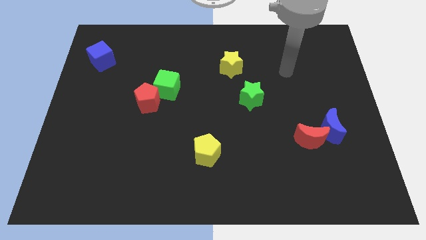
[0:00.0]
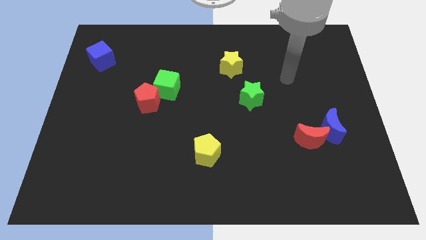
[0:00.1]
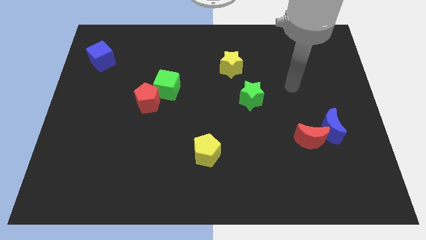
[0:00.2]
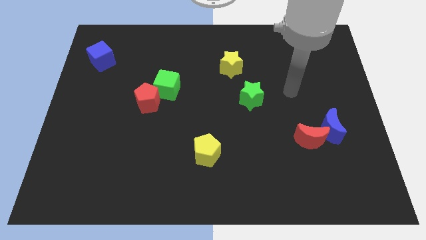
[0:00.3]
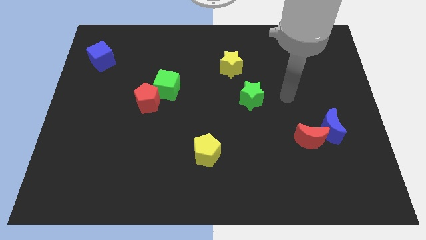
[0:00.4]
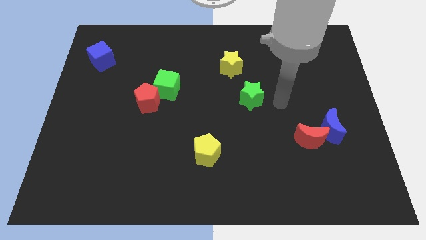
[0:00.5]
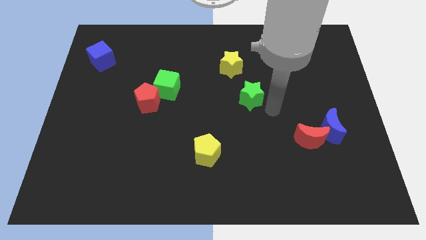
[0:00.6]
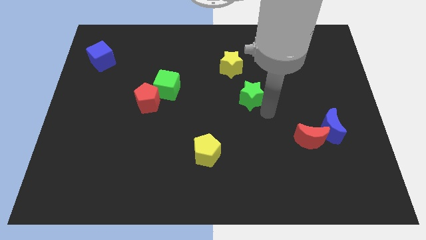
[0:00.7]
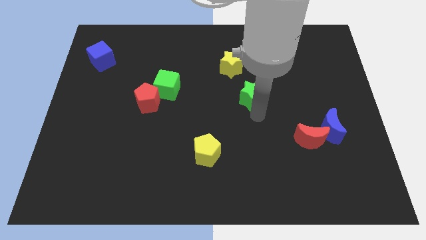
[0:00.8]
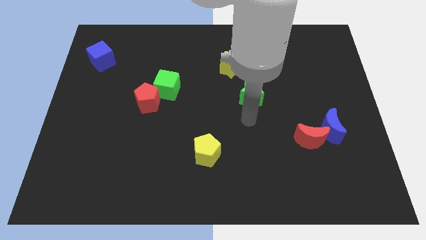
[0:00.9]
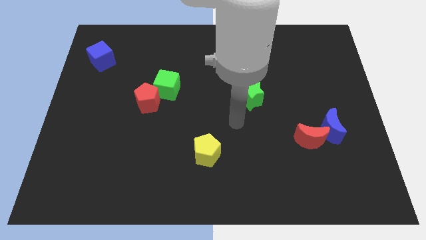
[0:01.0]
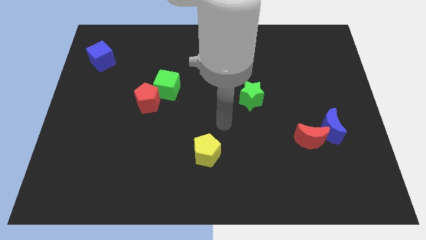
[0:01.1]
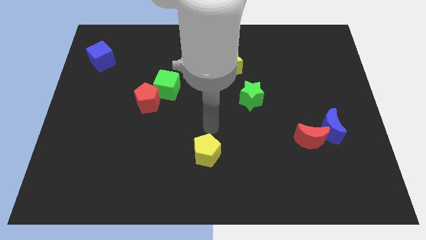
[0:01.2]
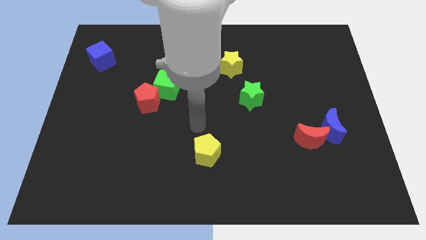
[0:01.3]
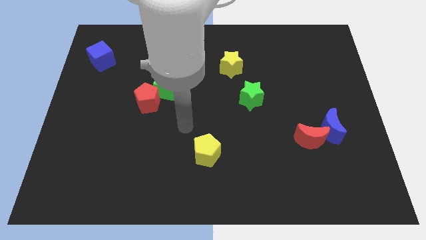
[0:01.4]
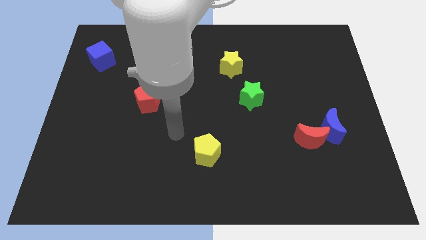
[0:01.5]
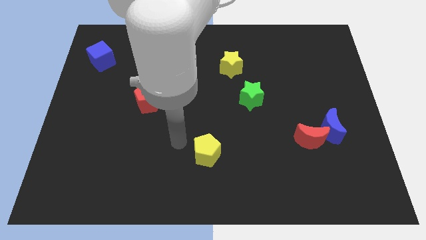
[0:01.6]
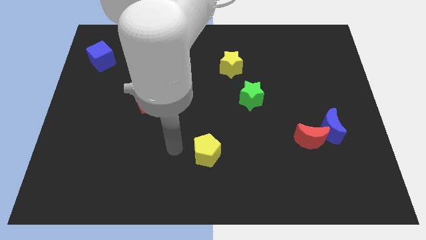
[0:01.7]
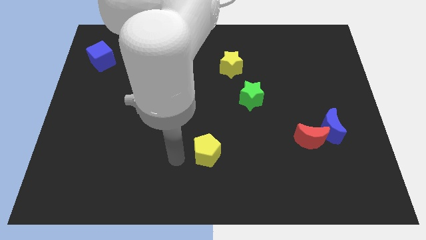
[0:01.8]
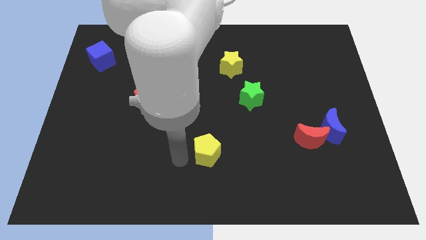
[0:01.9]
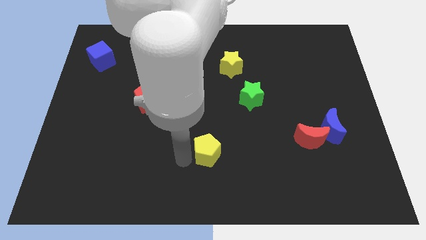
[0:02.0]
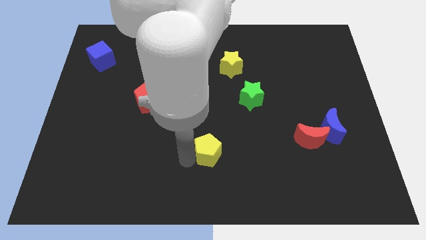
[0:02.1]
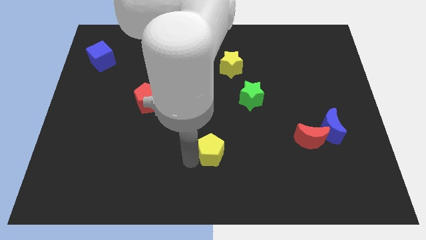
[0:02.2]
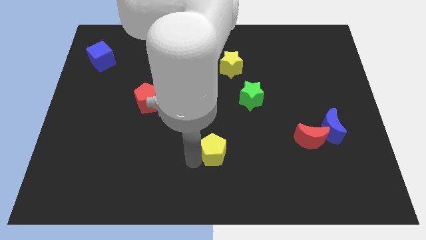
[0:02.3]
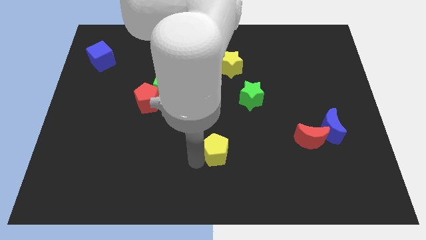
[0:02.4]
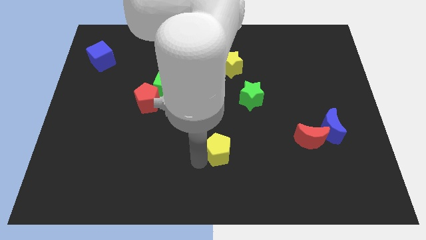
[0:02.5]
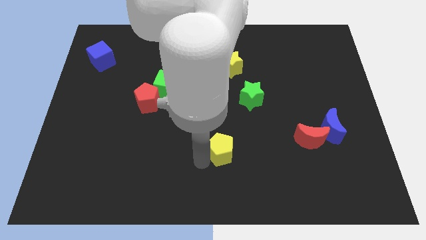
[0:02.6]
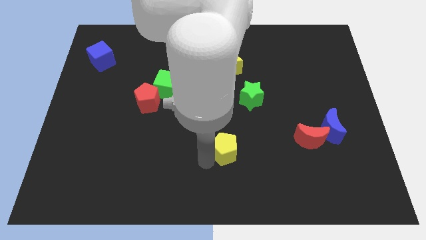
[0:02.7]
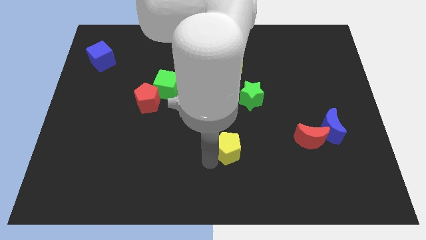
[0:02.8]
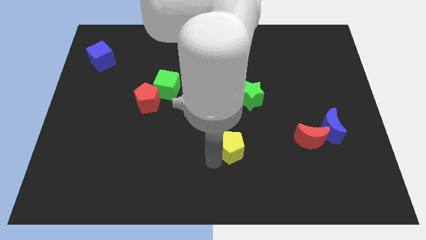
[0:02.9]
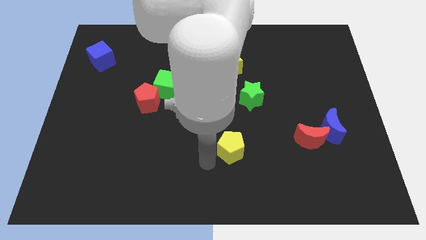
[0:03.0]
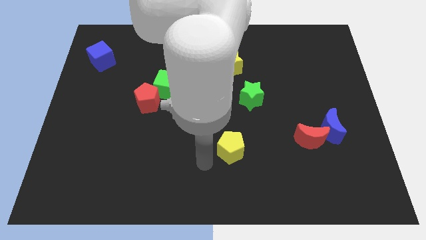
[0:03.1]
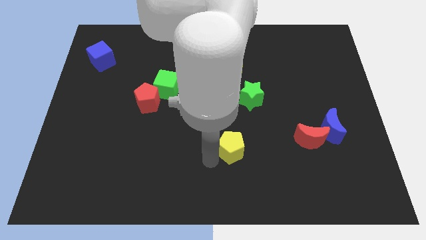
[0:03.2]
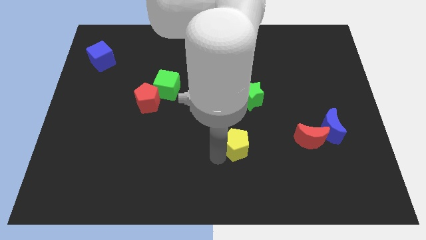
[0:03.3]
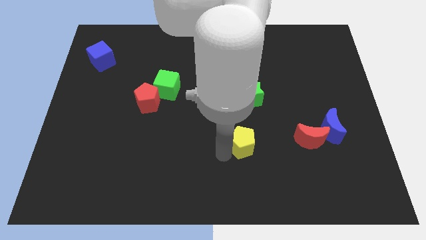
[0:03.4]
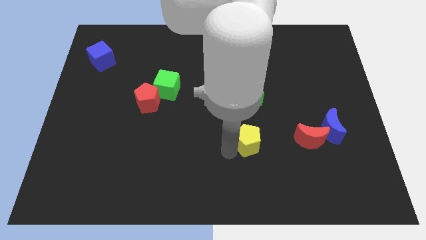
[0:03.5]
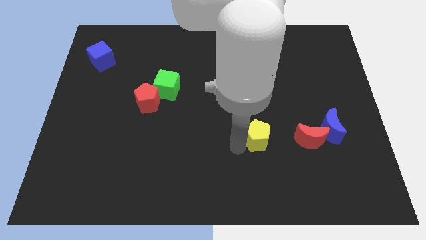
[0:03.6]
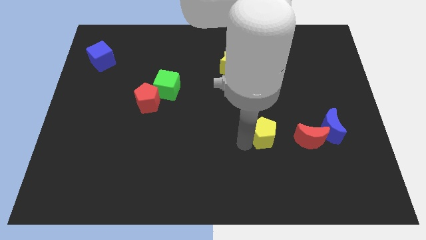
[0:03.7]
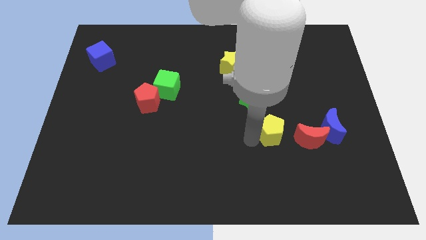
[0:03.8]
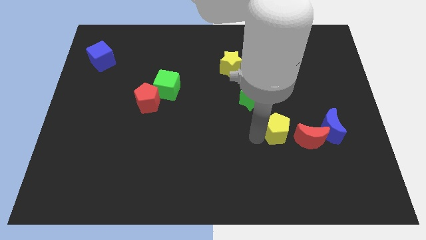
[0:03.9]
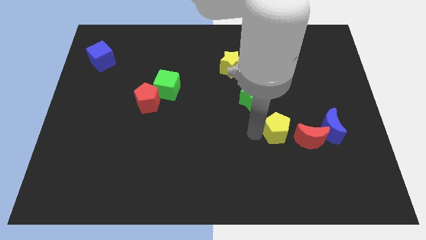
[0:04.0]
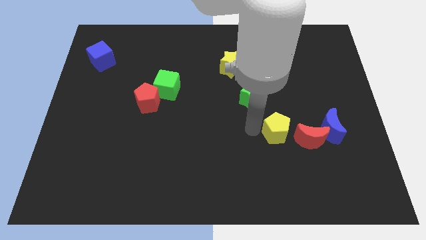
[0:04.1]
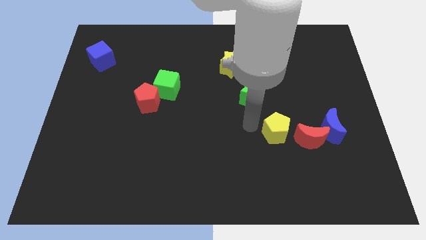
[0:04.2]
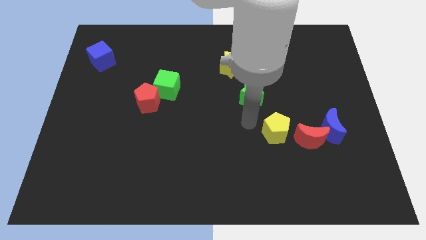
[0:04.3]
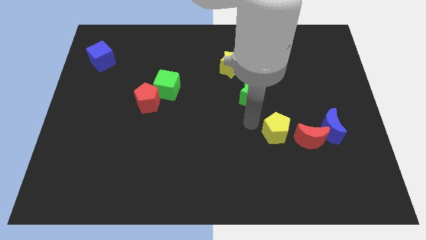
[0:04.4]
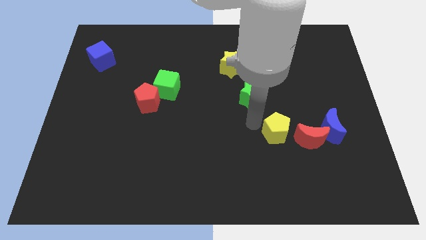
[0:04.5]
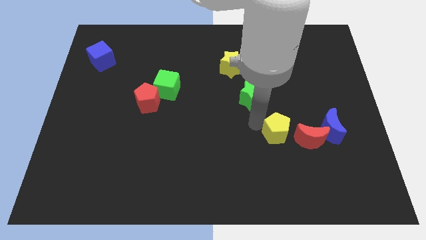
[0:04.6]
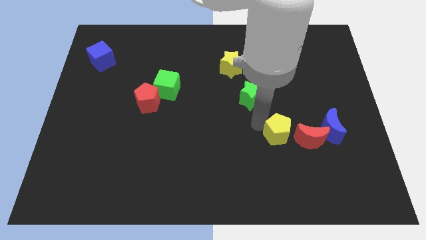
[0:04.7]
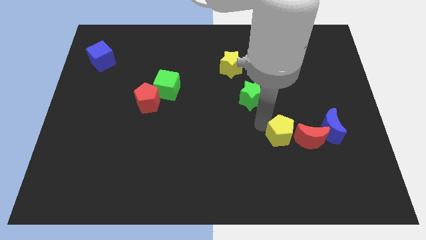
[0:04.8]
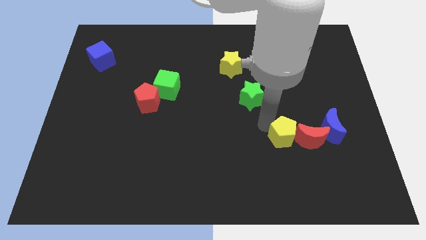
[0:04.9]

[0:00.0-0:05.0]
move the yellow pentagon towards the red moon

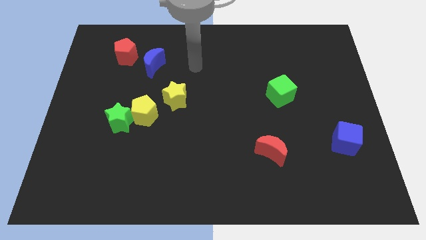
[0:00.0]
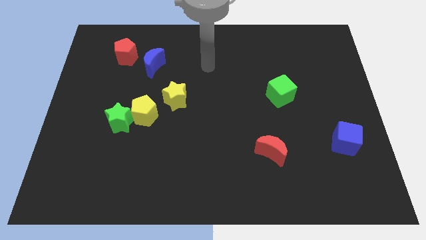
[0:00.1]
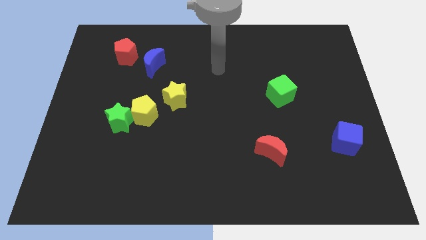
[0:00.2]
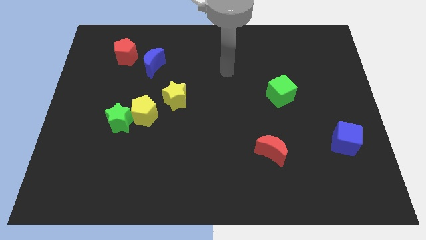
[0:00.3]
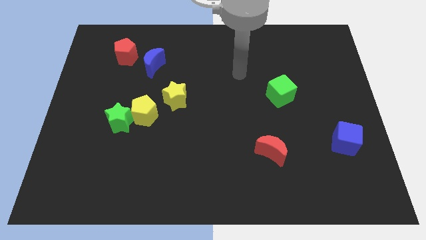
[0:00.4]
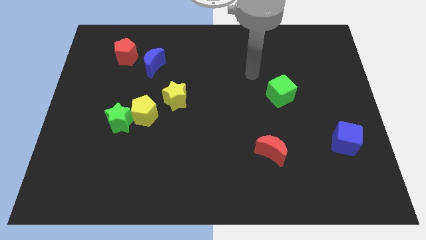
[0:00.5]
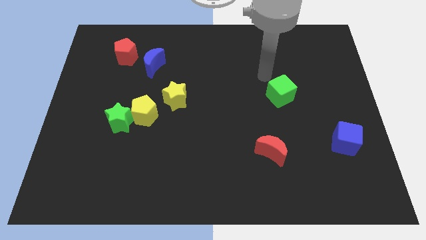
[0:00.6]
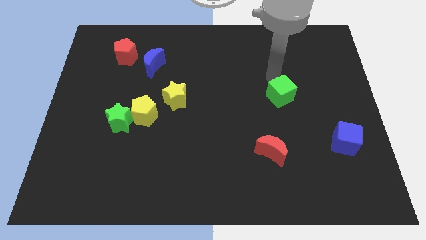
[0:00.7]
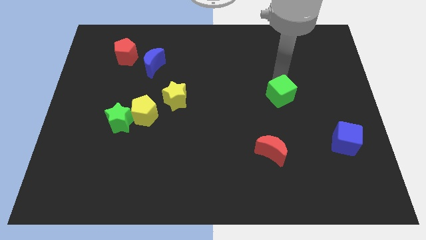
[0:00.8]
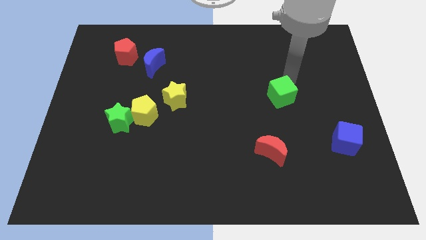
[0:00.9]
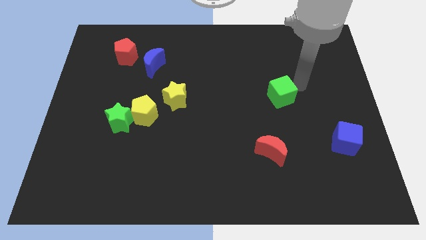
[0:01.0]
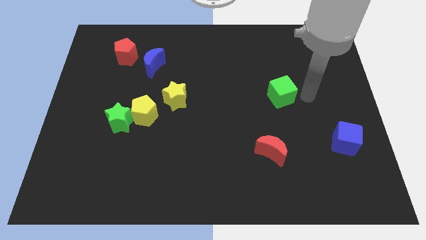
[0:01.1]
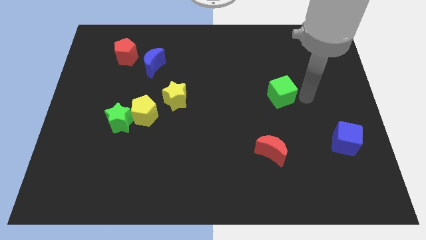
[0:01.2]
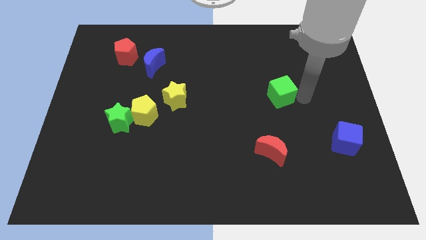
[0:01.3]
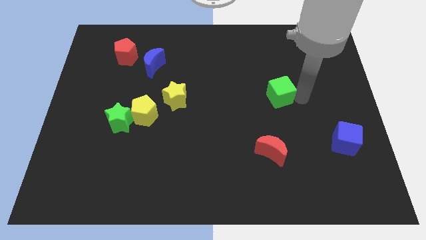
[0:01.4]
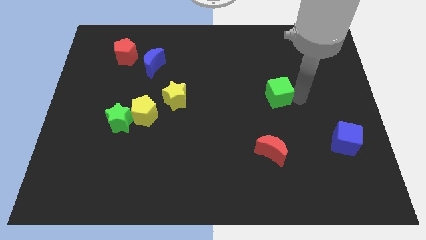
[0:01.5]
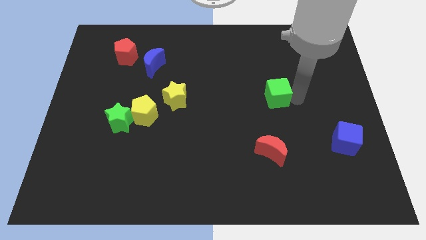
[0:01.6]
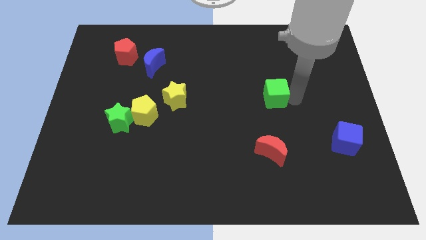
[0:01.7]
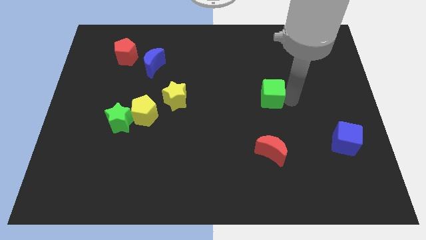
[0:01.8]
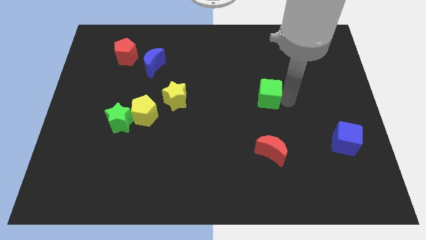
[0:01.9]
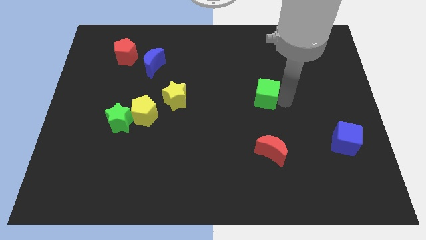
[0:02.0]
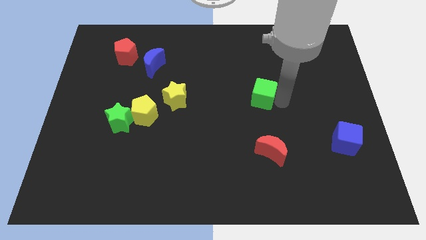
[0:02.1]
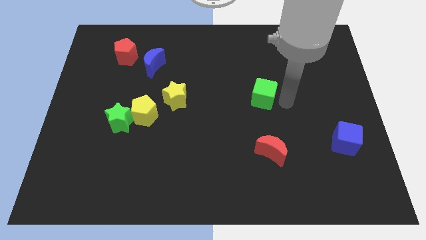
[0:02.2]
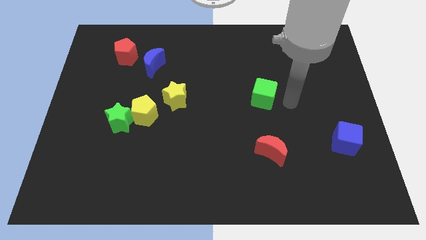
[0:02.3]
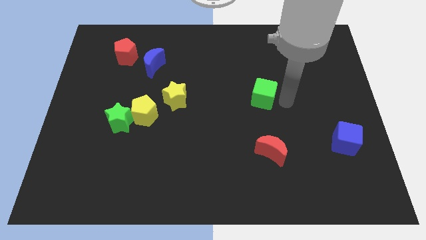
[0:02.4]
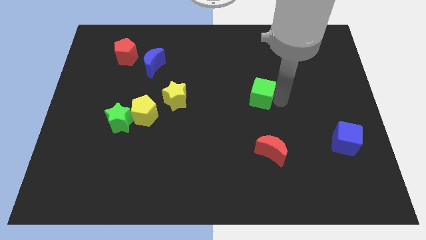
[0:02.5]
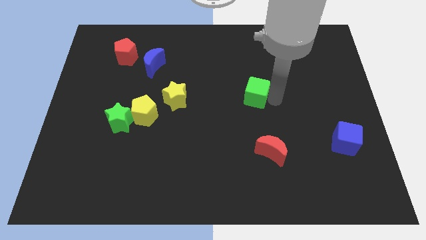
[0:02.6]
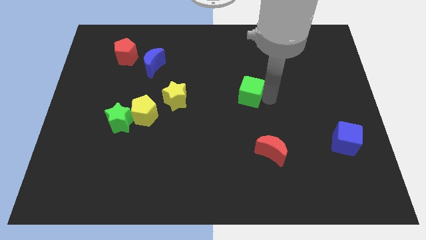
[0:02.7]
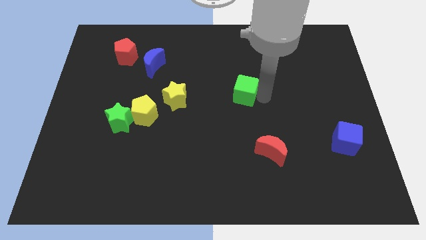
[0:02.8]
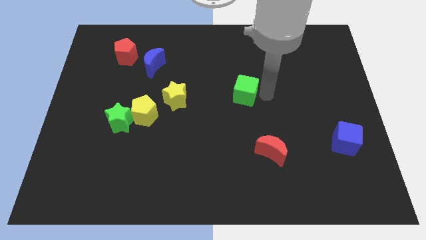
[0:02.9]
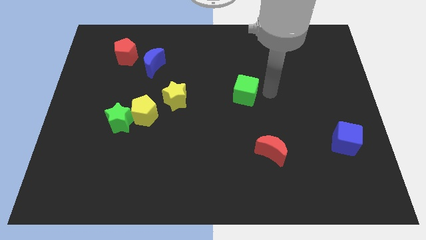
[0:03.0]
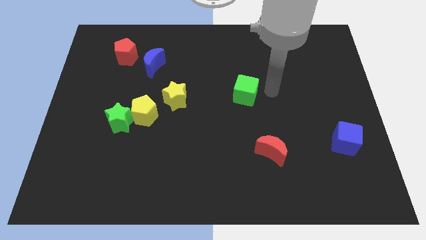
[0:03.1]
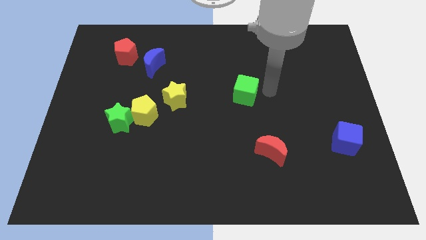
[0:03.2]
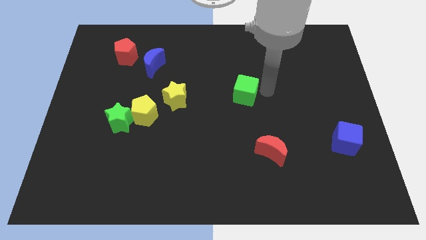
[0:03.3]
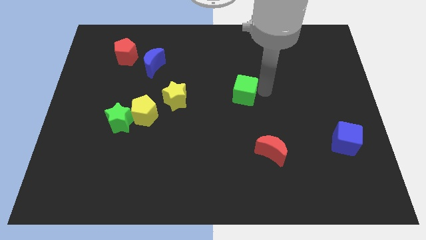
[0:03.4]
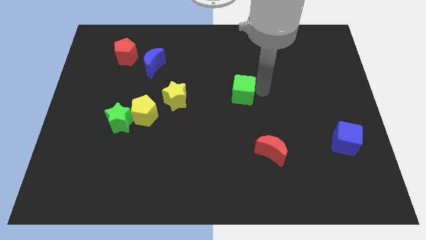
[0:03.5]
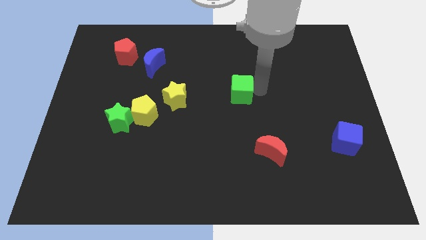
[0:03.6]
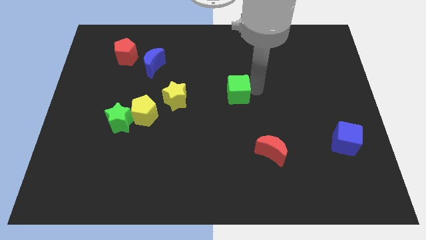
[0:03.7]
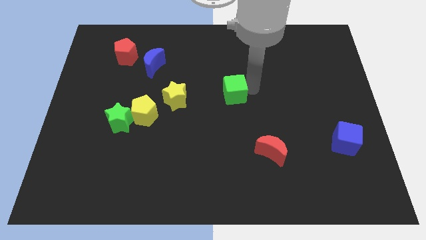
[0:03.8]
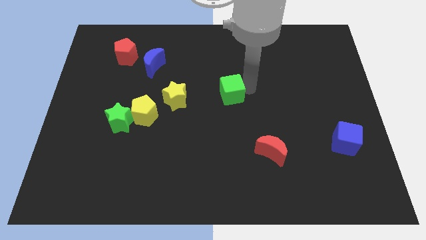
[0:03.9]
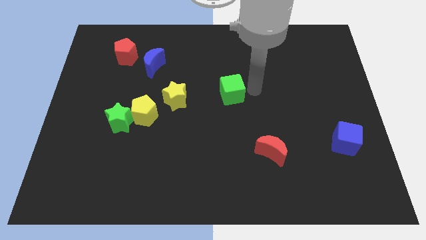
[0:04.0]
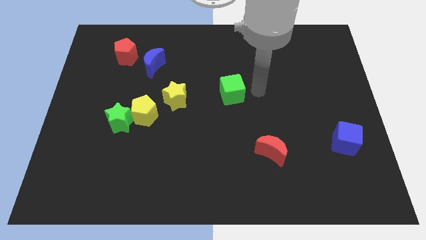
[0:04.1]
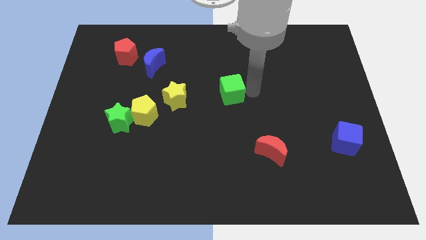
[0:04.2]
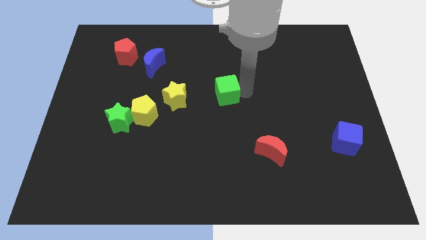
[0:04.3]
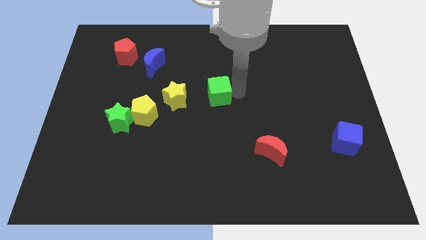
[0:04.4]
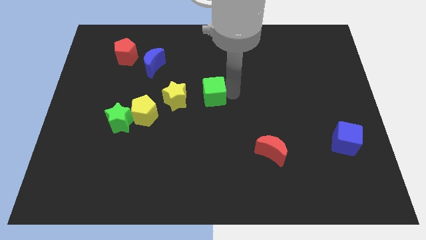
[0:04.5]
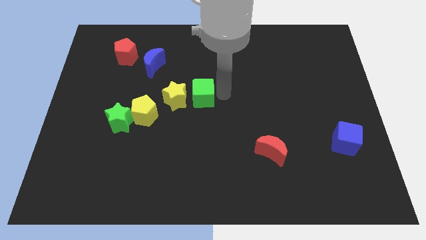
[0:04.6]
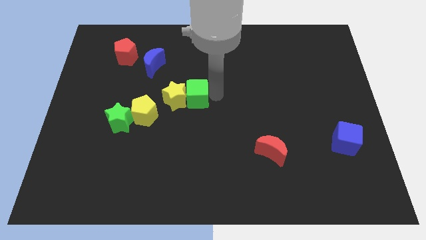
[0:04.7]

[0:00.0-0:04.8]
push the green cube towards the yellow star
